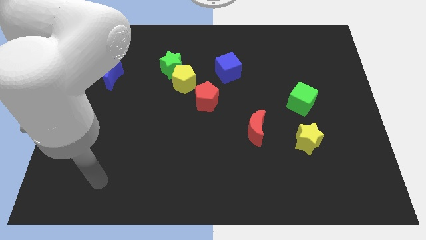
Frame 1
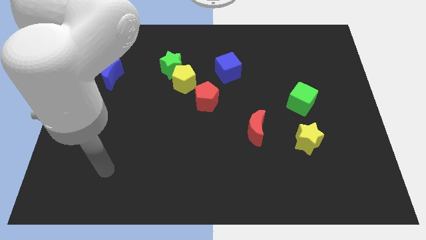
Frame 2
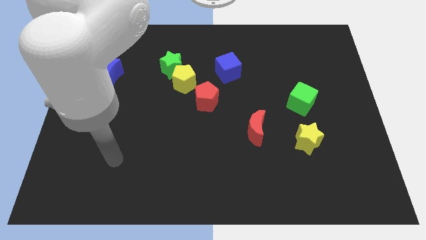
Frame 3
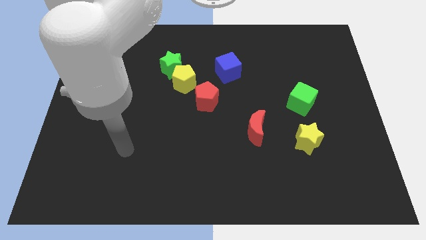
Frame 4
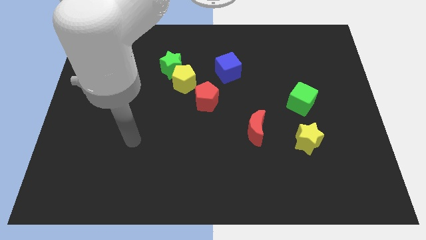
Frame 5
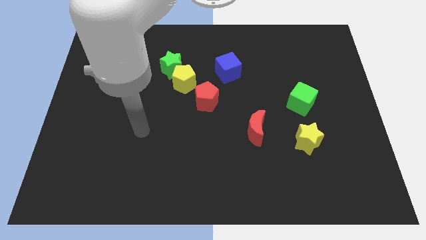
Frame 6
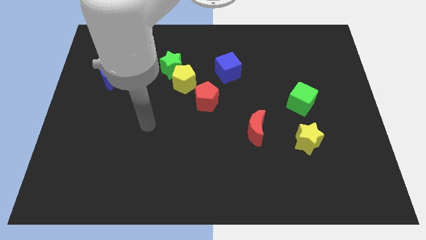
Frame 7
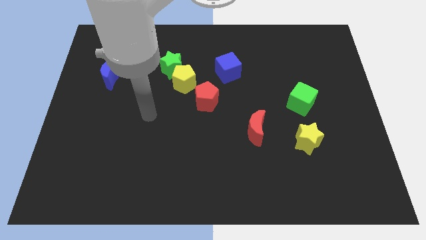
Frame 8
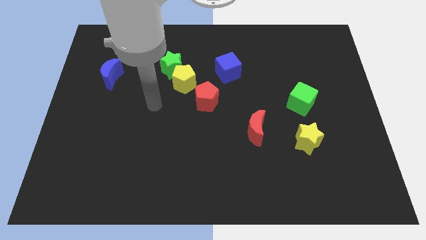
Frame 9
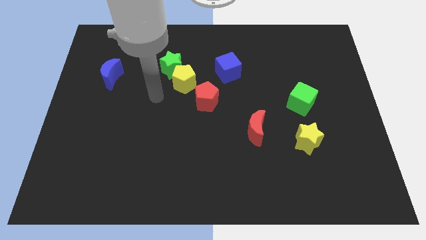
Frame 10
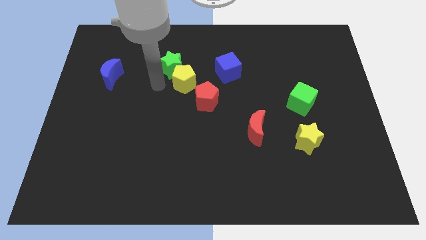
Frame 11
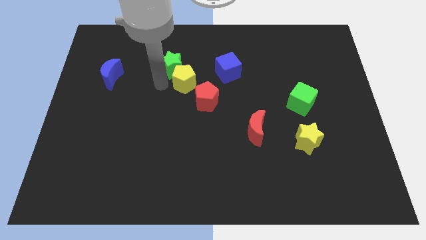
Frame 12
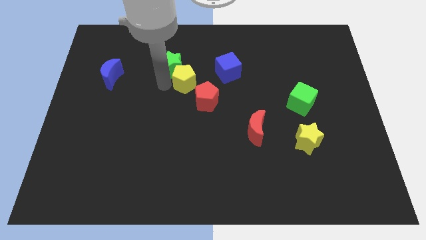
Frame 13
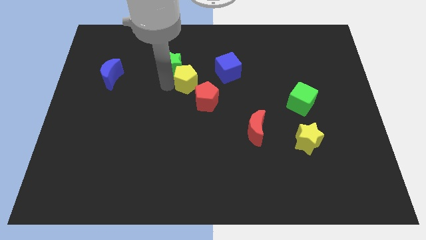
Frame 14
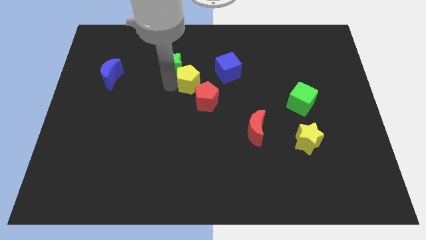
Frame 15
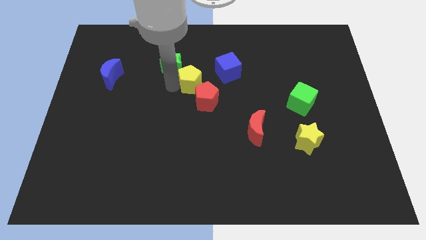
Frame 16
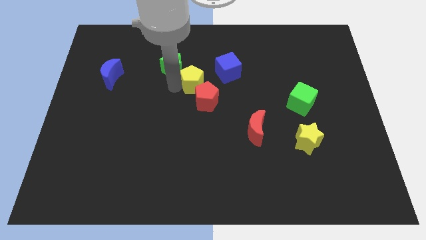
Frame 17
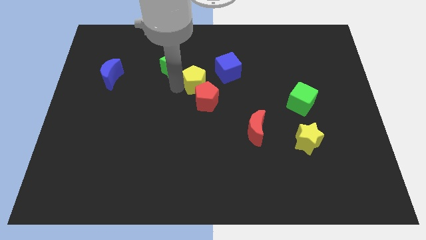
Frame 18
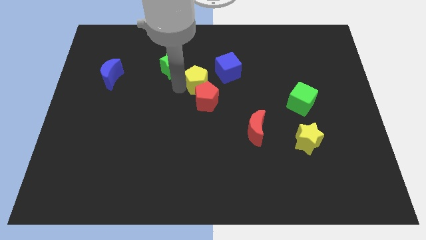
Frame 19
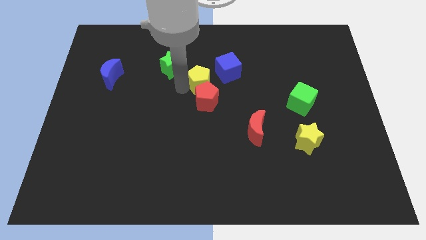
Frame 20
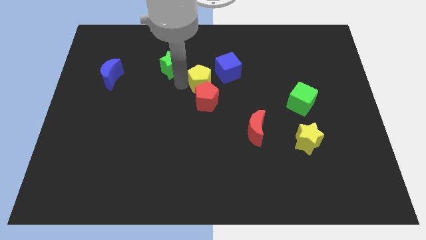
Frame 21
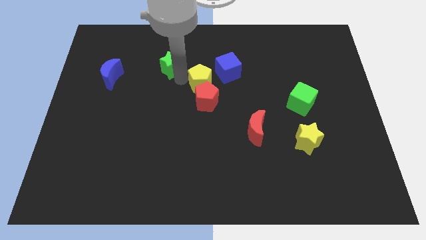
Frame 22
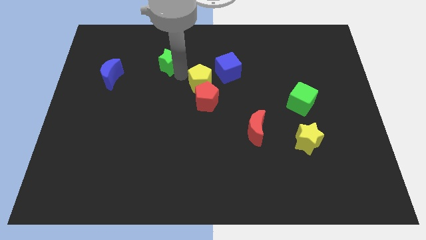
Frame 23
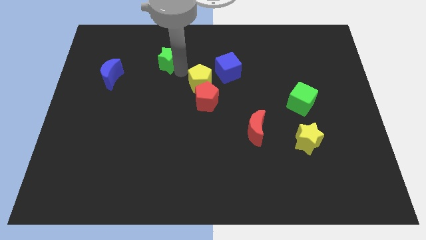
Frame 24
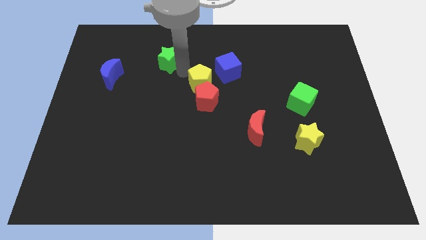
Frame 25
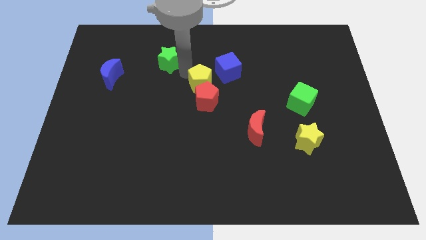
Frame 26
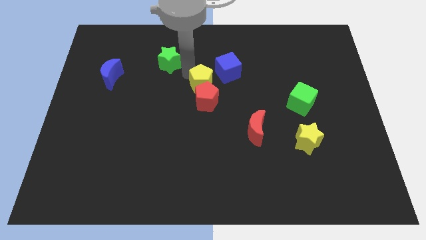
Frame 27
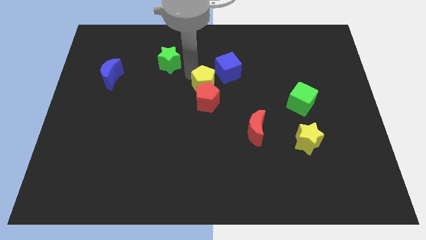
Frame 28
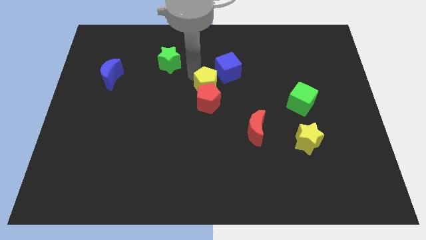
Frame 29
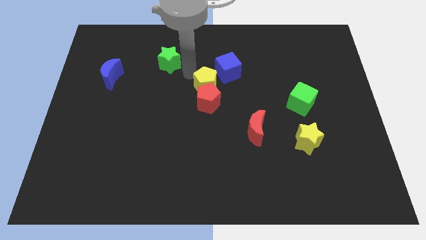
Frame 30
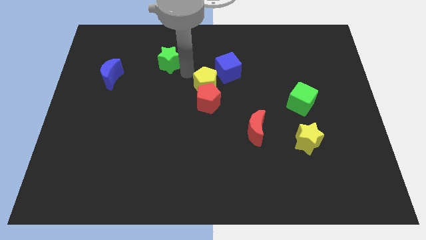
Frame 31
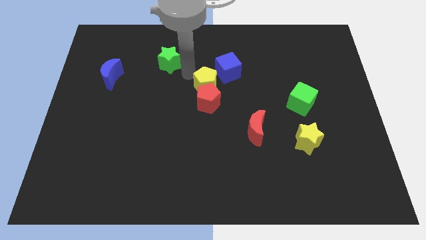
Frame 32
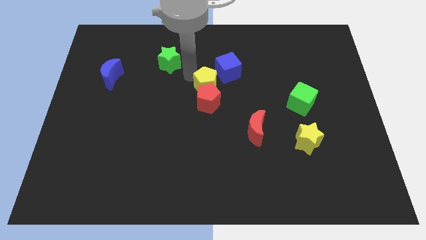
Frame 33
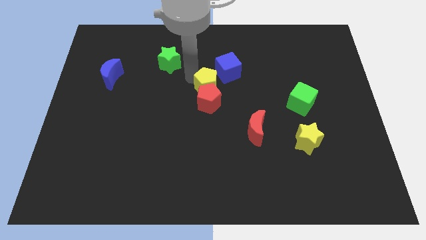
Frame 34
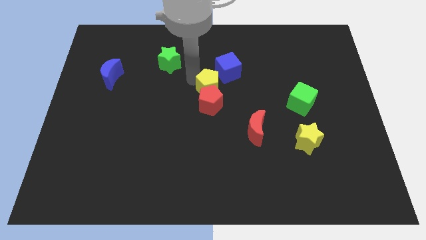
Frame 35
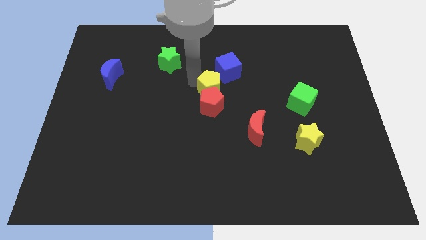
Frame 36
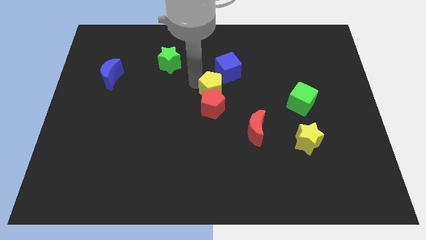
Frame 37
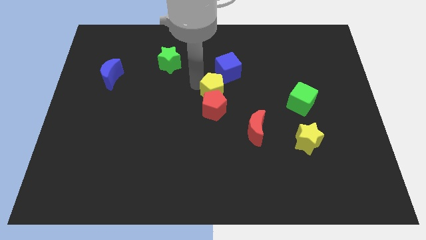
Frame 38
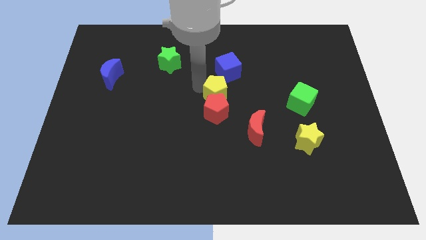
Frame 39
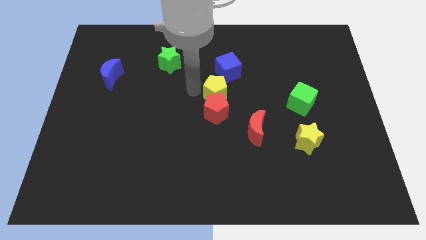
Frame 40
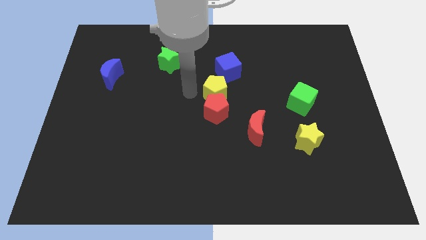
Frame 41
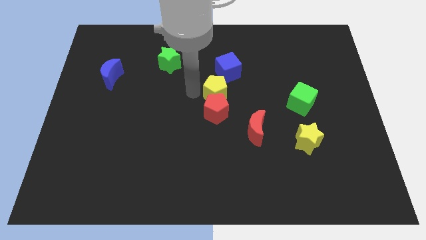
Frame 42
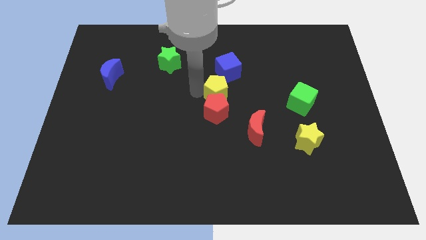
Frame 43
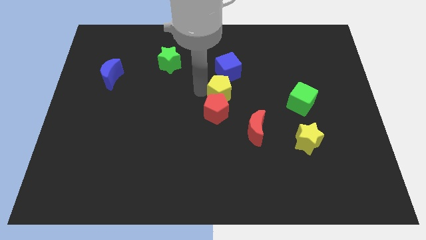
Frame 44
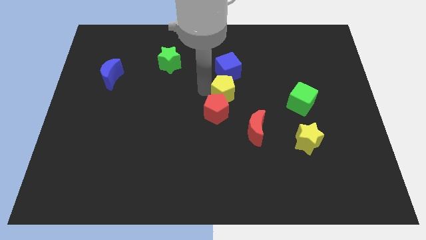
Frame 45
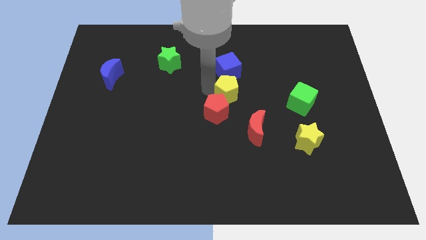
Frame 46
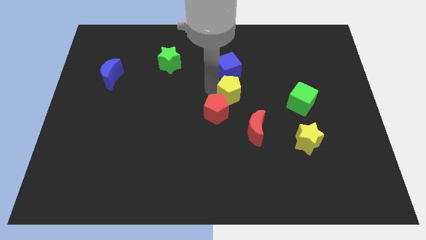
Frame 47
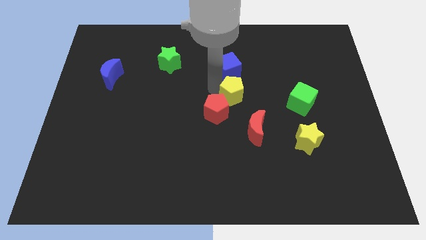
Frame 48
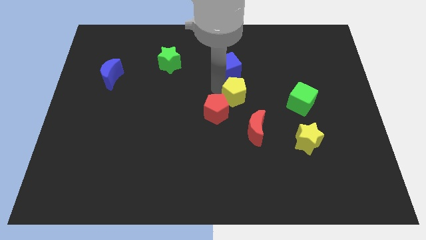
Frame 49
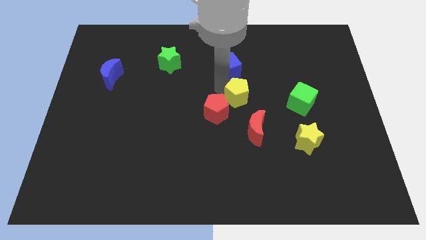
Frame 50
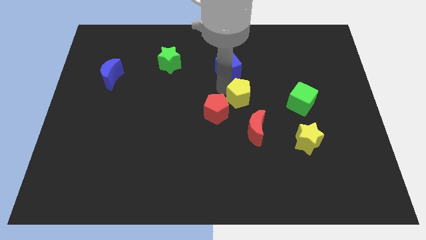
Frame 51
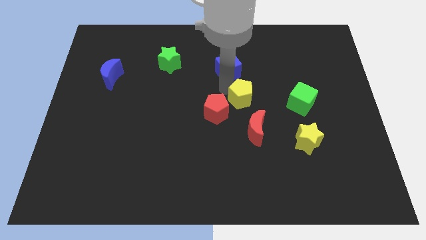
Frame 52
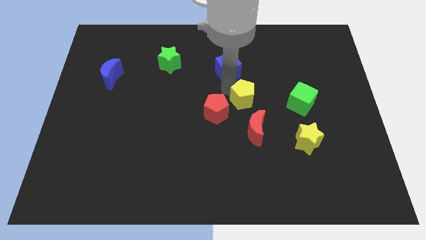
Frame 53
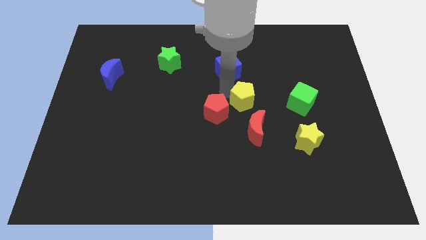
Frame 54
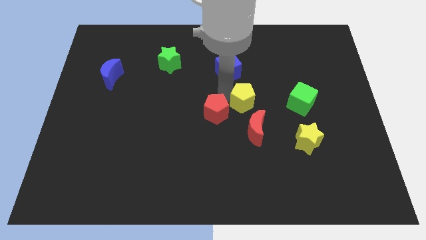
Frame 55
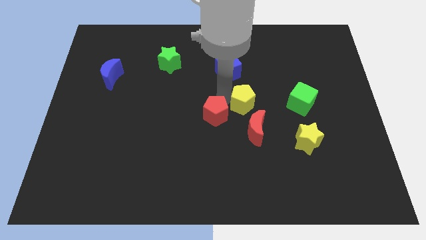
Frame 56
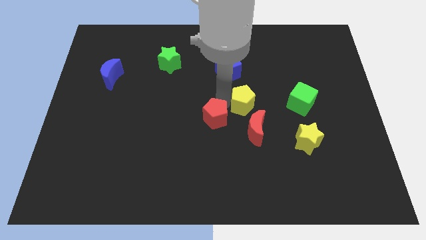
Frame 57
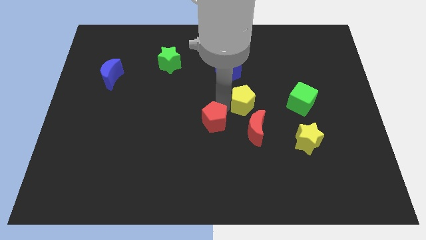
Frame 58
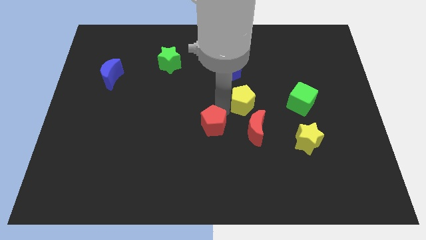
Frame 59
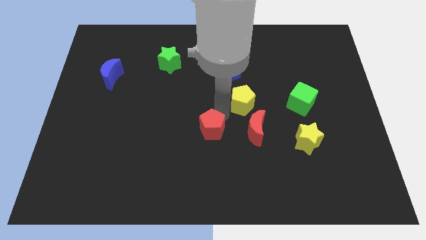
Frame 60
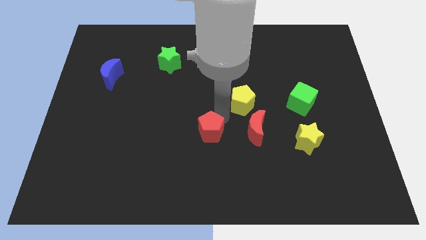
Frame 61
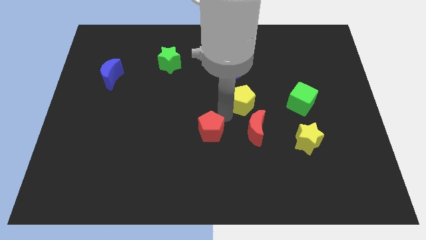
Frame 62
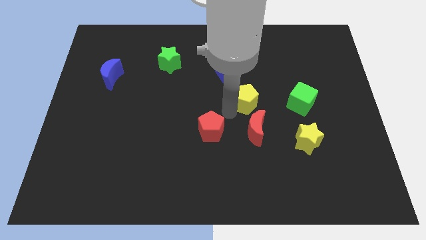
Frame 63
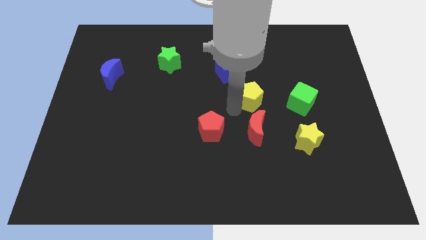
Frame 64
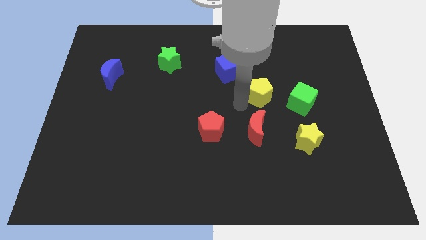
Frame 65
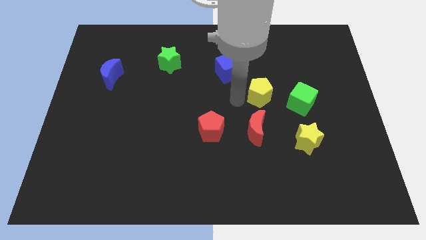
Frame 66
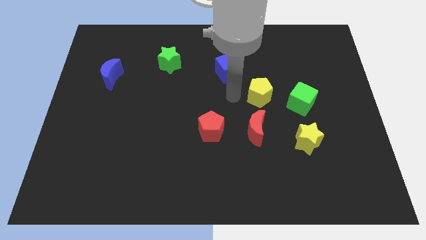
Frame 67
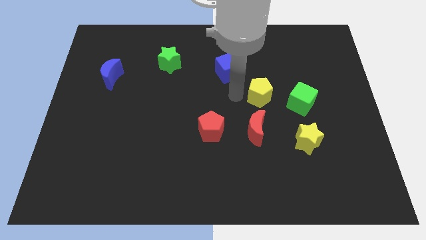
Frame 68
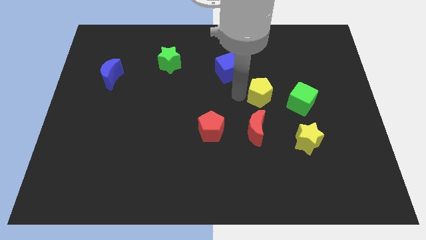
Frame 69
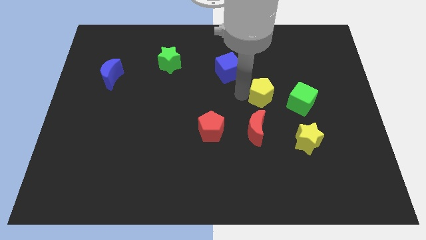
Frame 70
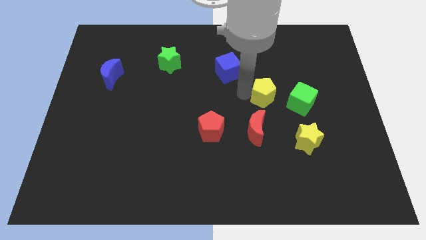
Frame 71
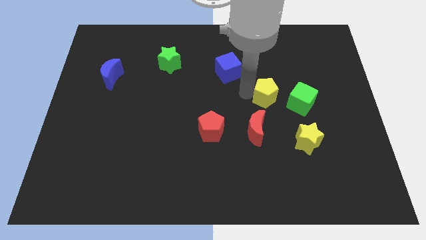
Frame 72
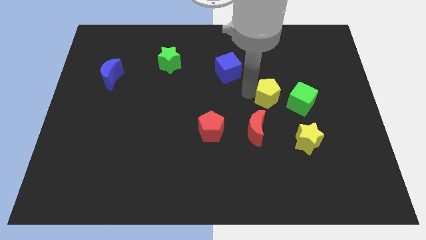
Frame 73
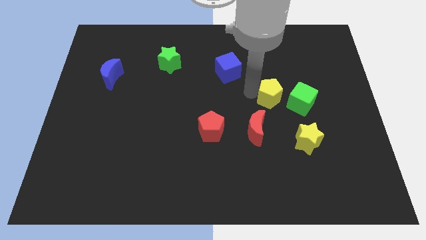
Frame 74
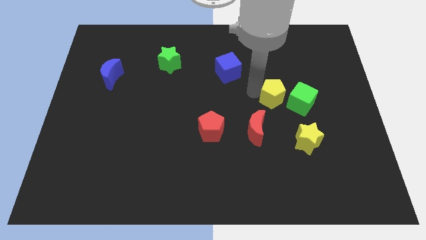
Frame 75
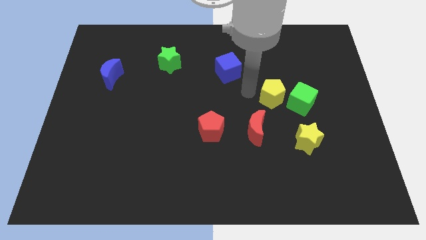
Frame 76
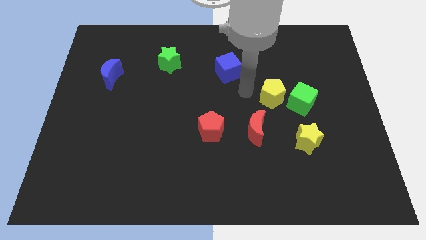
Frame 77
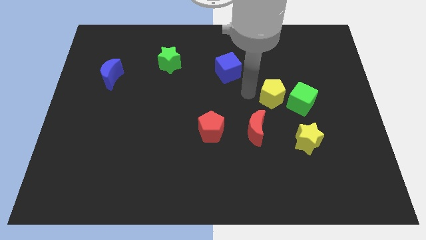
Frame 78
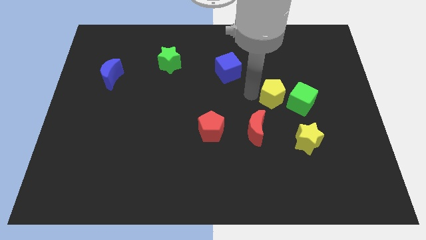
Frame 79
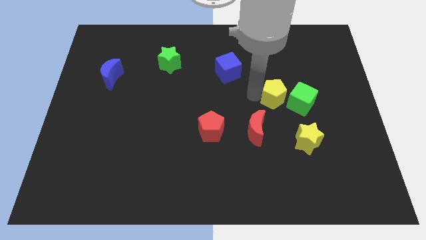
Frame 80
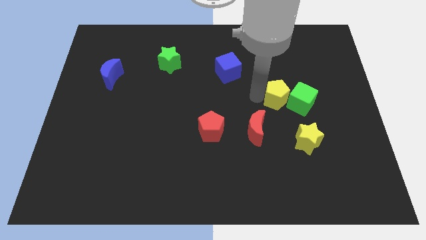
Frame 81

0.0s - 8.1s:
push the yellow pentagon close to the green cube

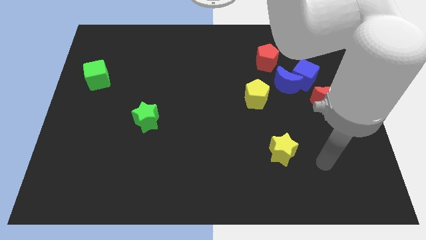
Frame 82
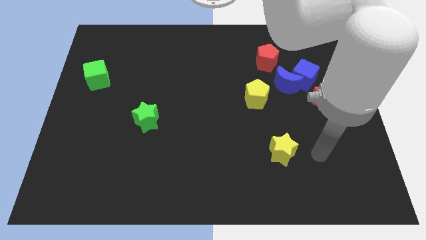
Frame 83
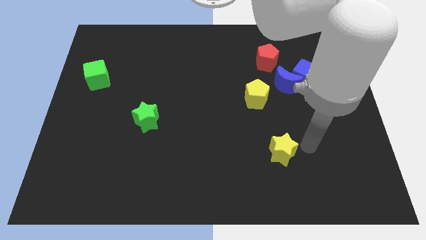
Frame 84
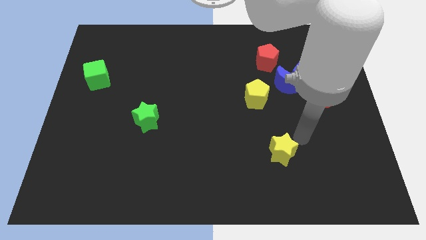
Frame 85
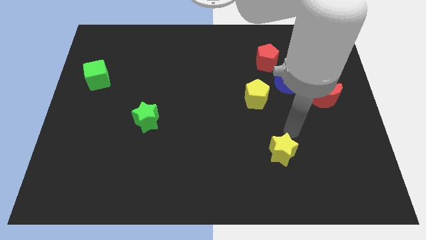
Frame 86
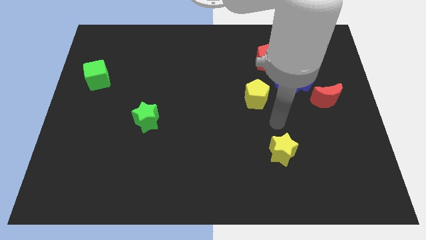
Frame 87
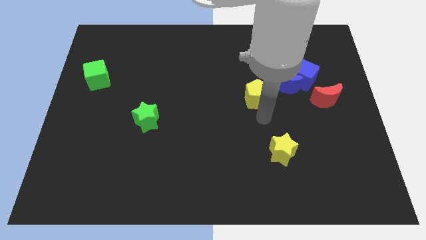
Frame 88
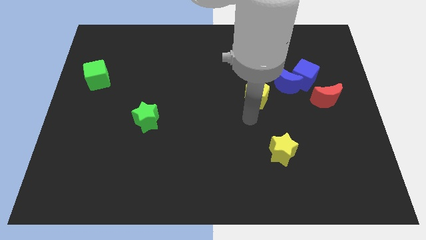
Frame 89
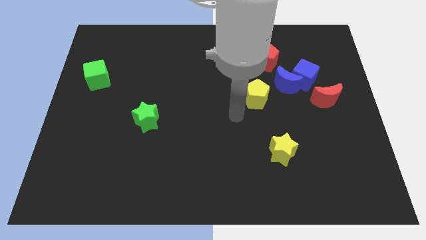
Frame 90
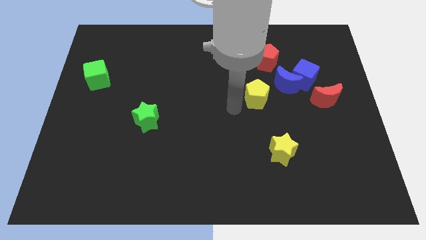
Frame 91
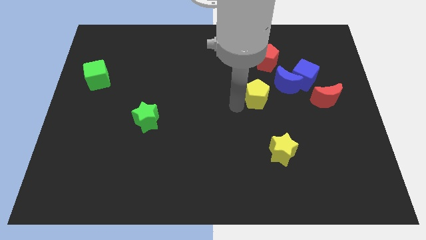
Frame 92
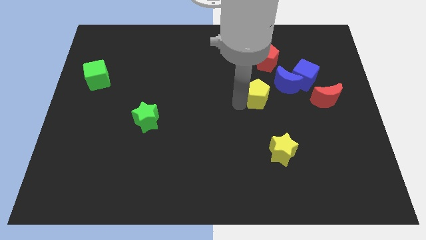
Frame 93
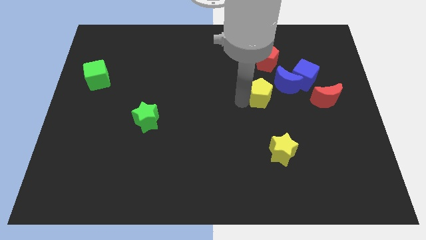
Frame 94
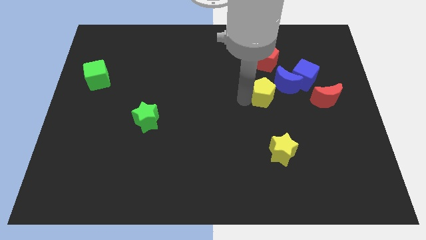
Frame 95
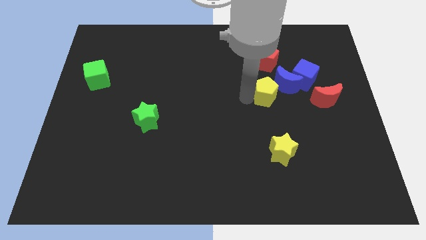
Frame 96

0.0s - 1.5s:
push the yellow pentagon to the blue moon
